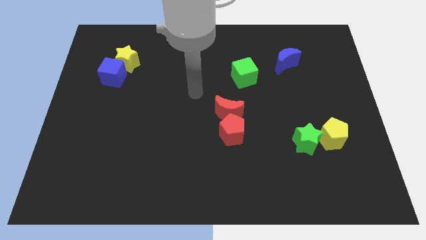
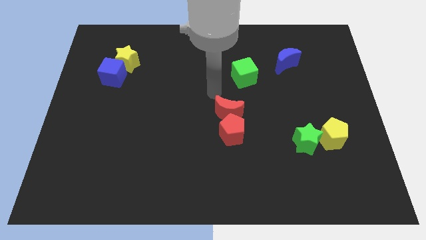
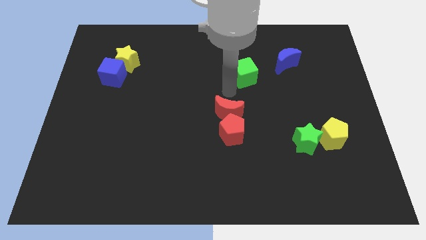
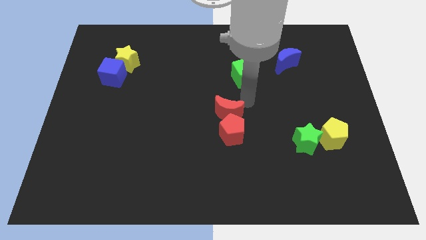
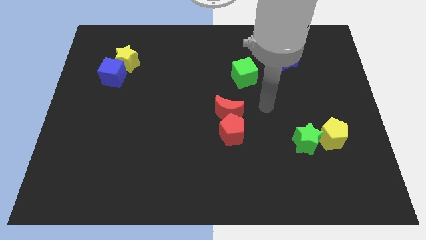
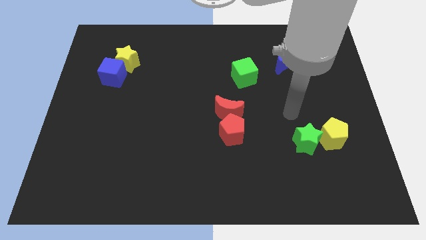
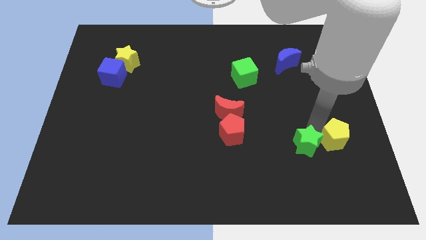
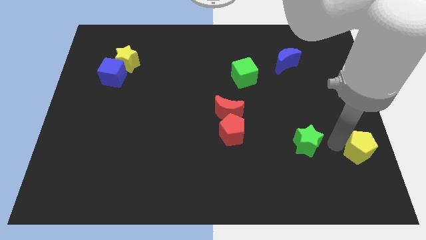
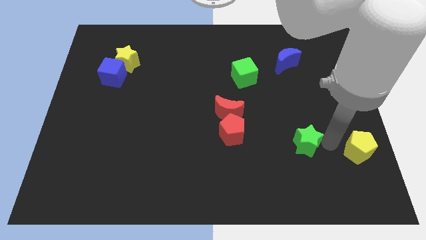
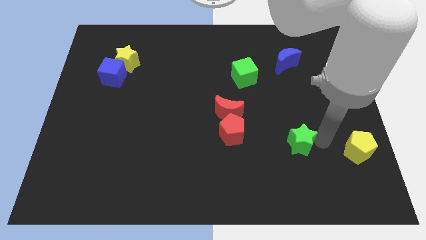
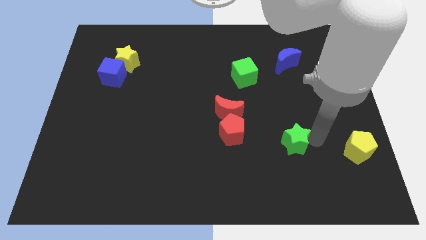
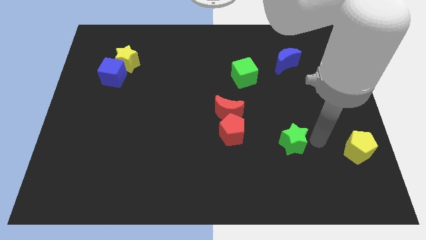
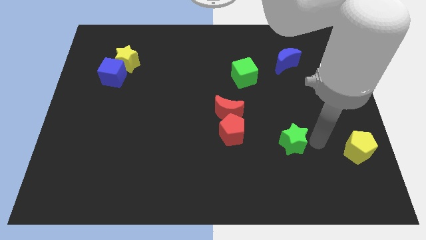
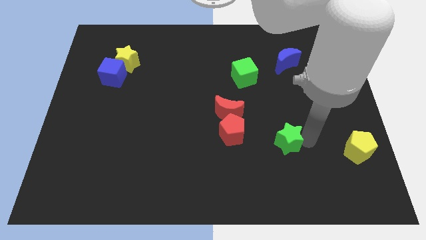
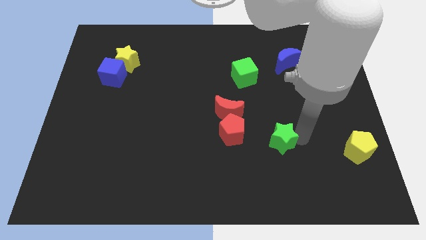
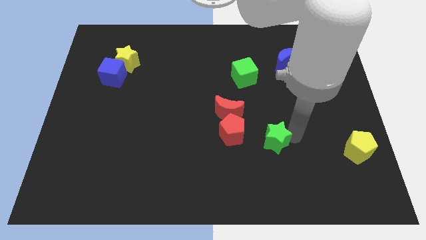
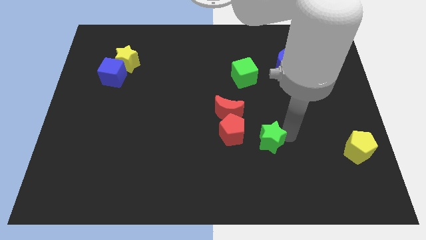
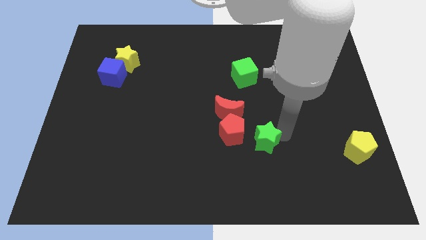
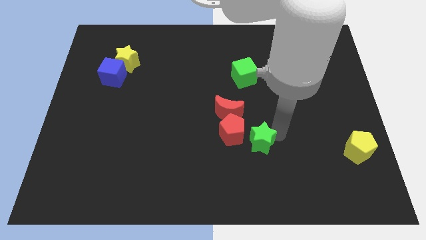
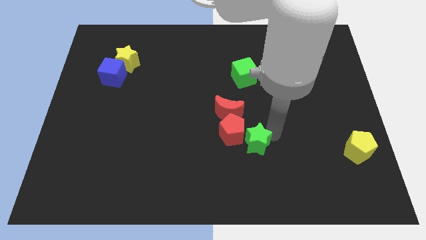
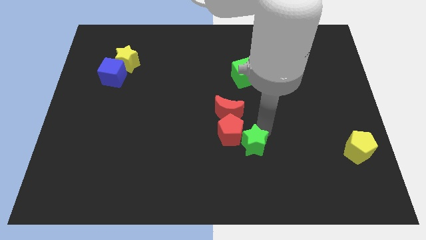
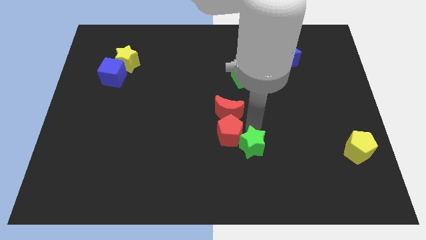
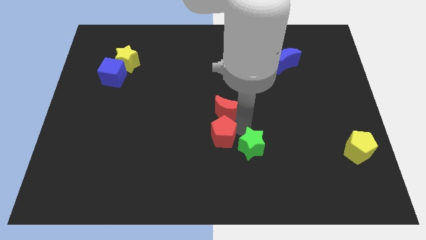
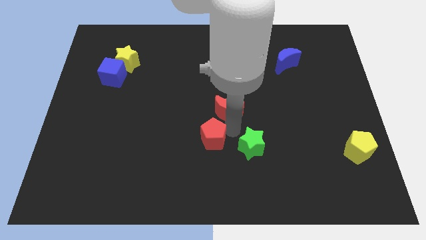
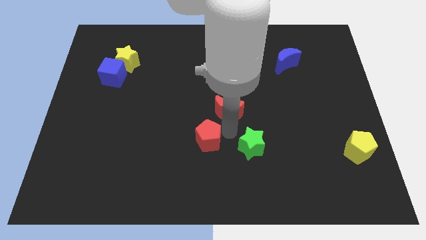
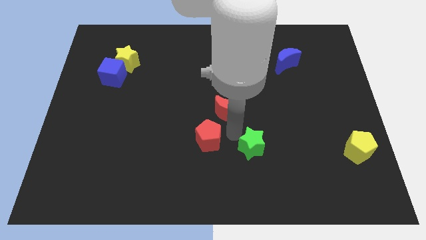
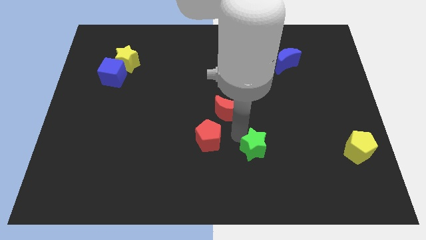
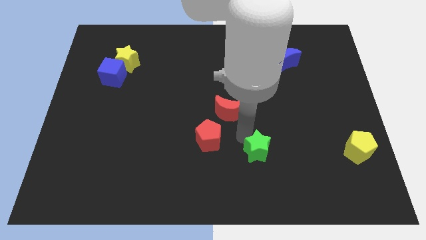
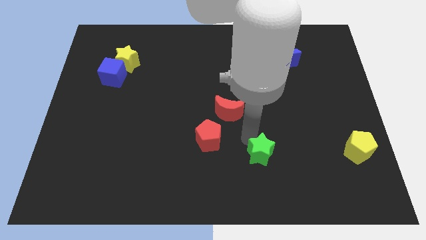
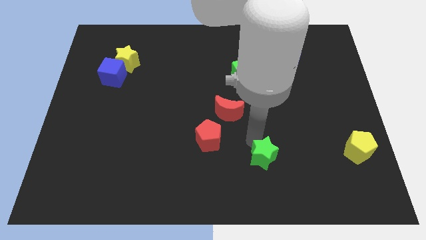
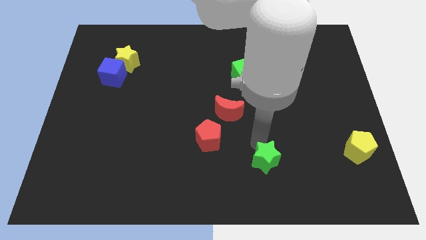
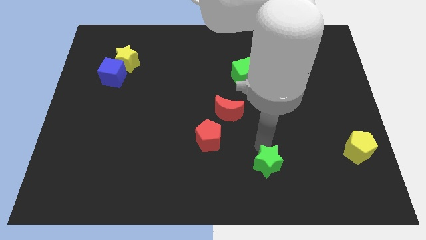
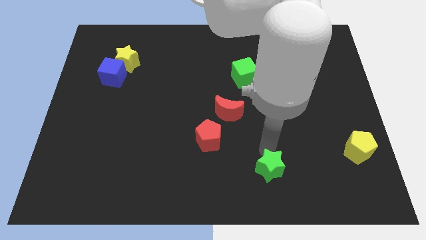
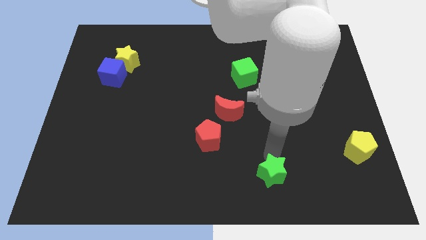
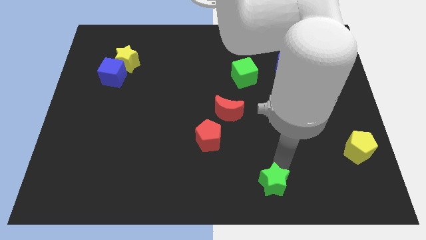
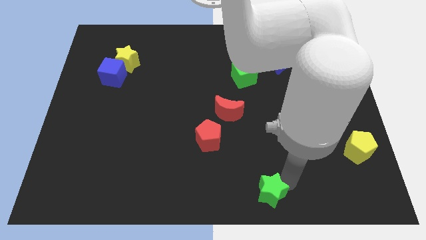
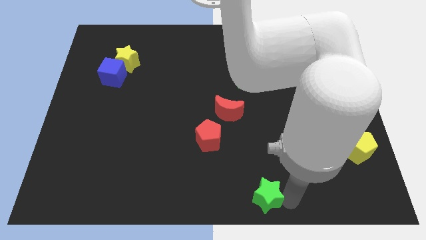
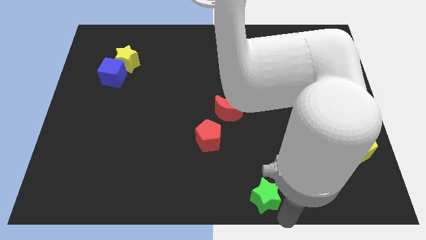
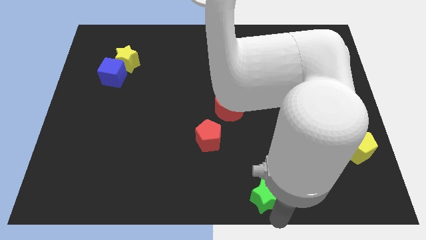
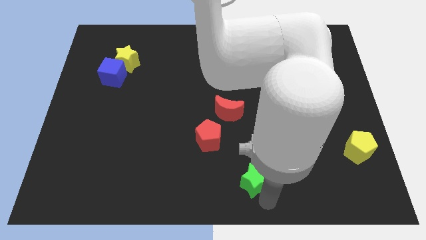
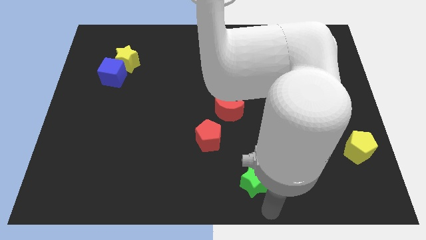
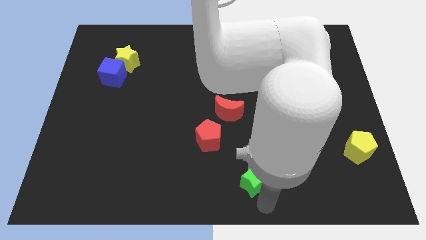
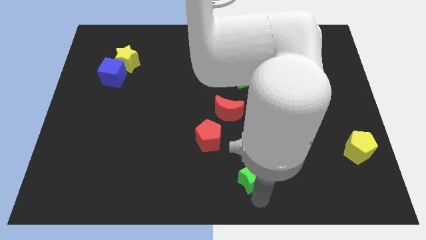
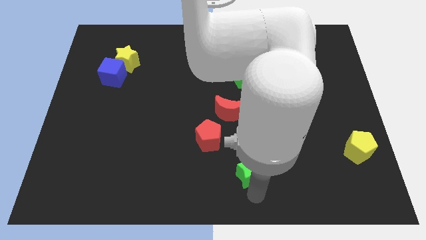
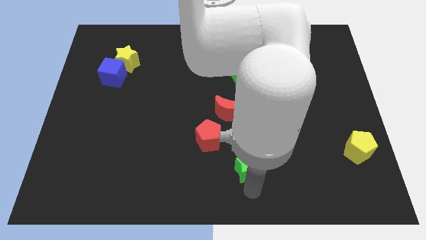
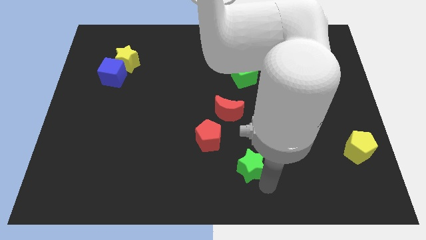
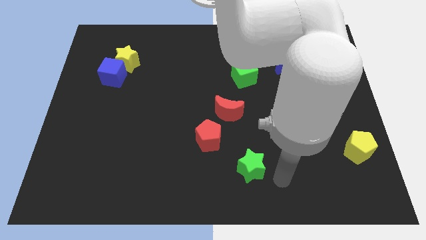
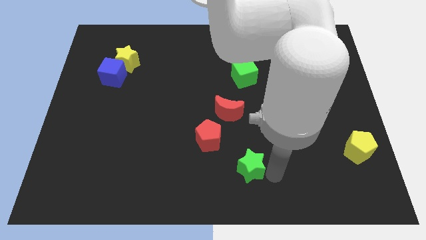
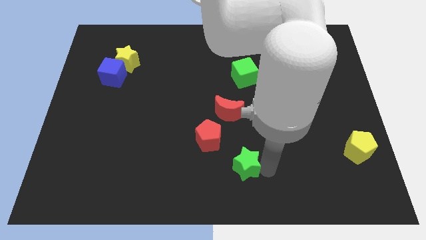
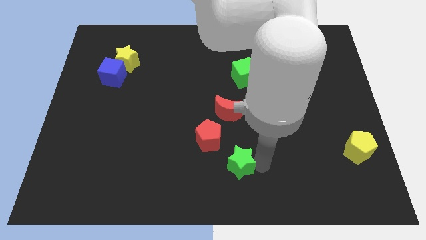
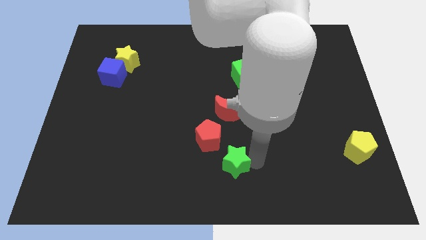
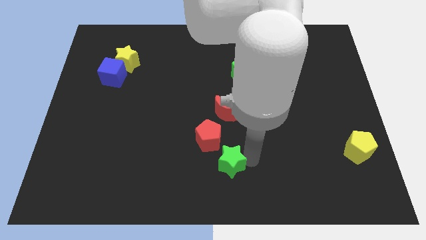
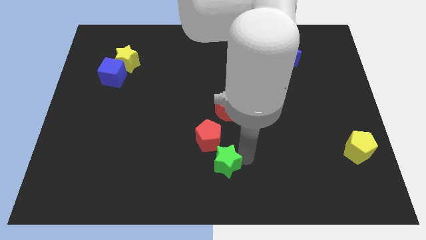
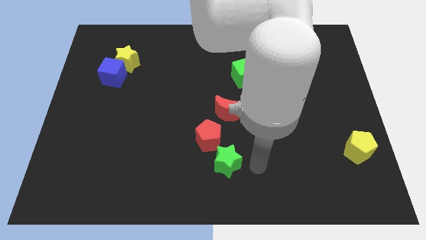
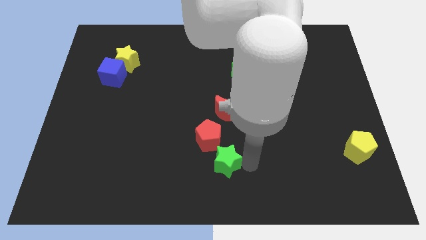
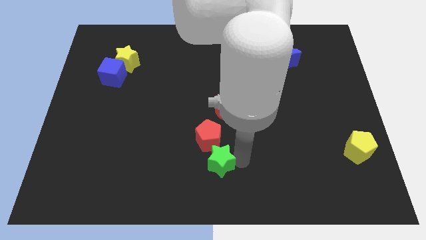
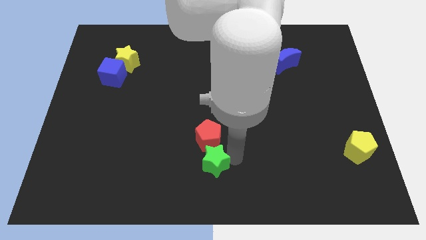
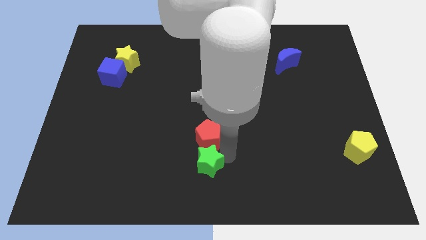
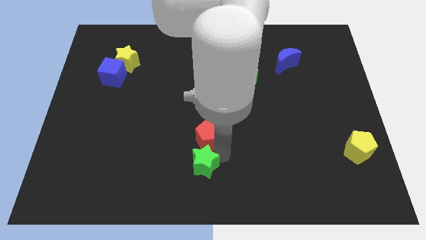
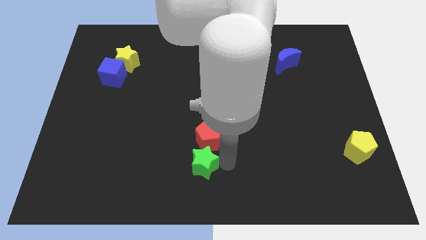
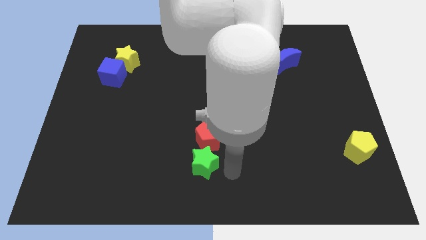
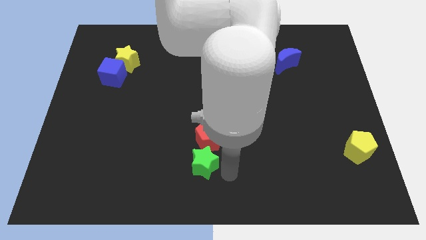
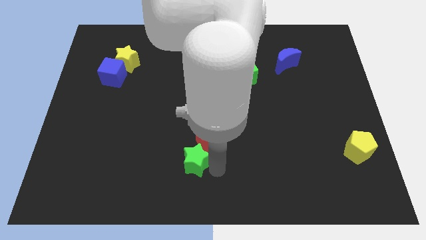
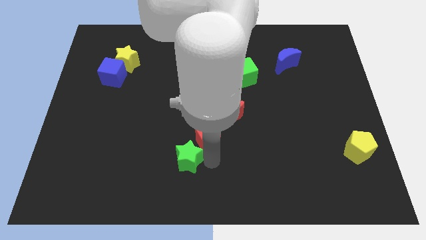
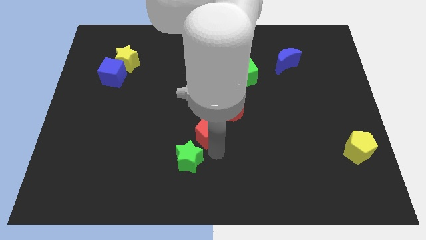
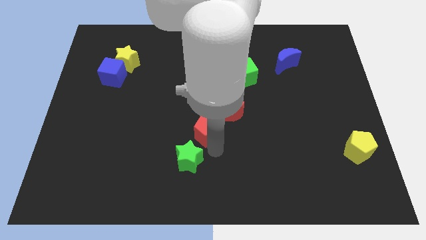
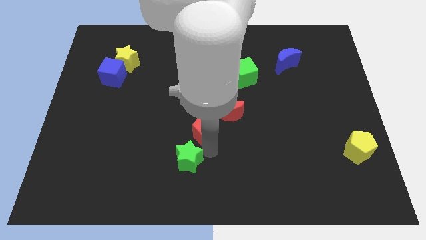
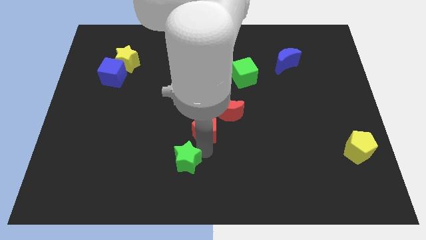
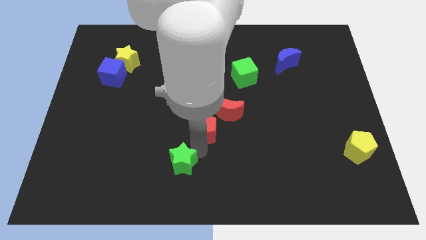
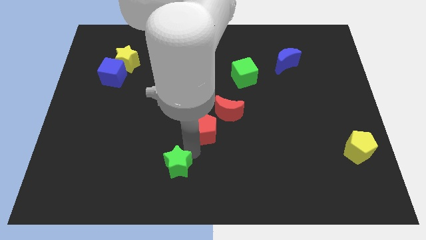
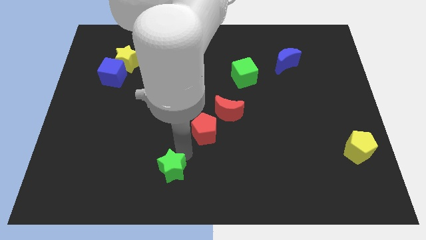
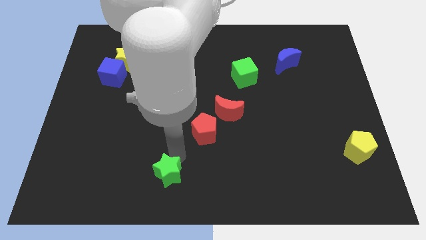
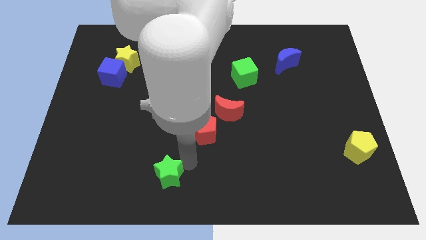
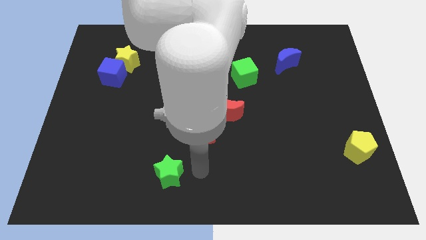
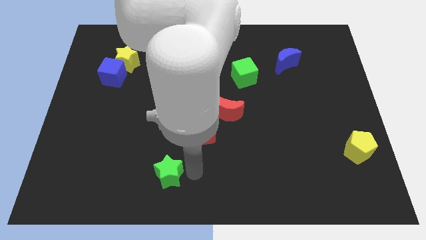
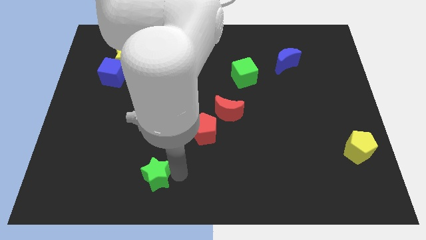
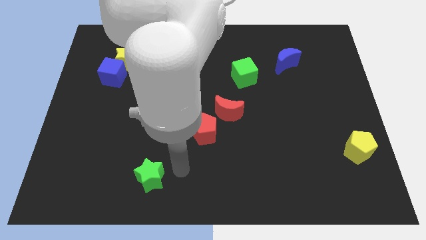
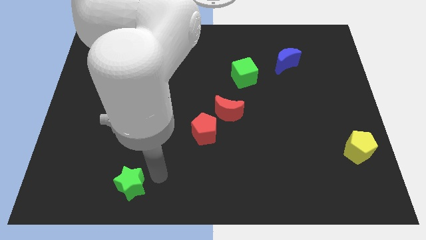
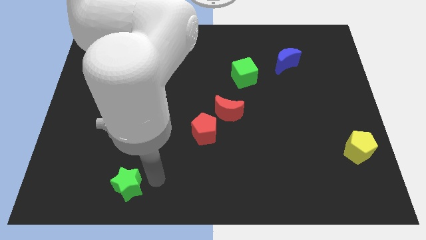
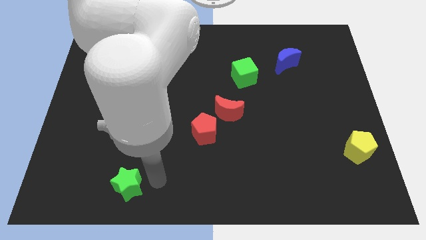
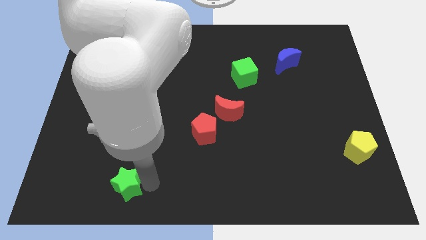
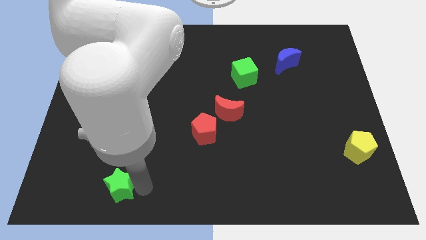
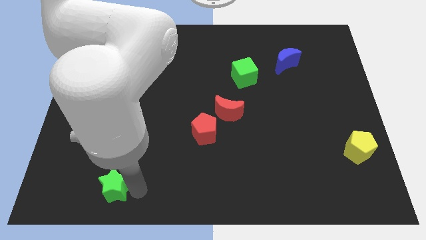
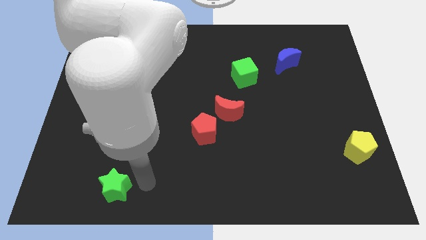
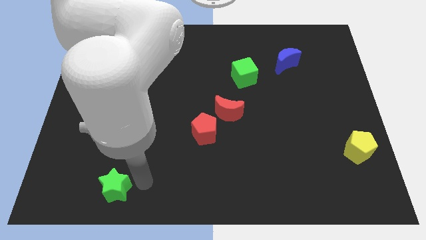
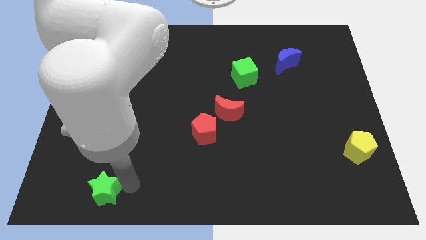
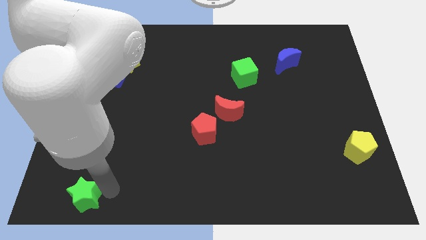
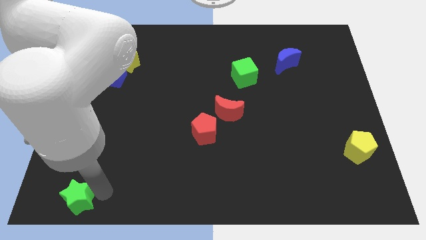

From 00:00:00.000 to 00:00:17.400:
put the green star to the bottom left
